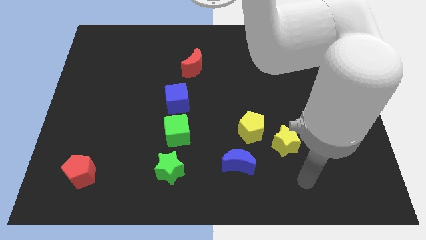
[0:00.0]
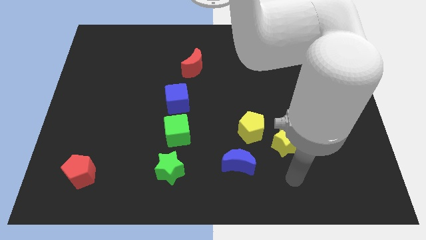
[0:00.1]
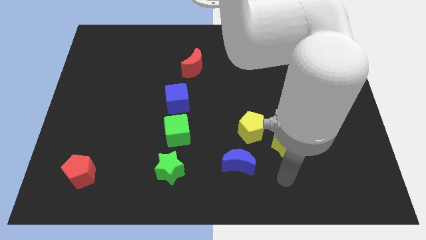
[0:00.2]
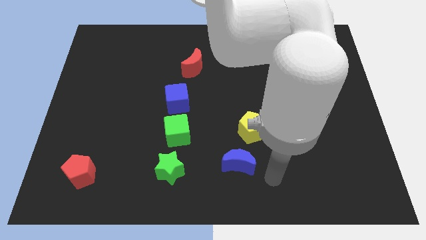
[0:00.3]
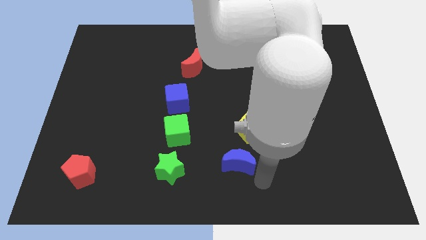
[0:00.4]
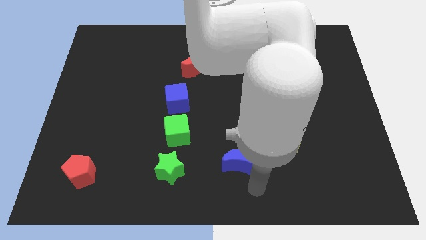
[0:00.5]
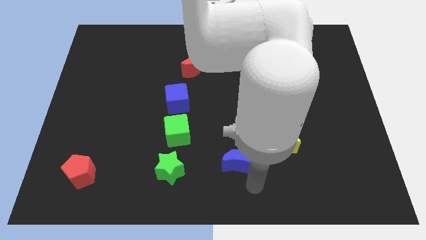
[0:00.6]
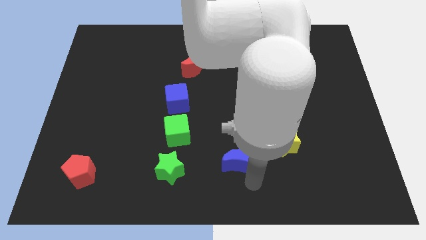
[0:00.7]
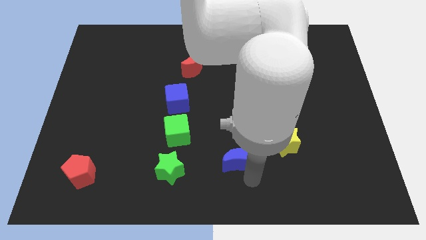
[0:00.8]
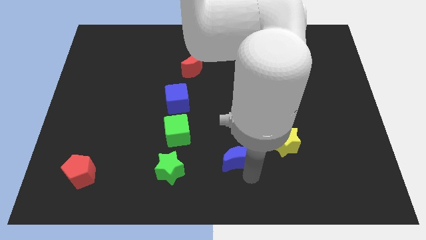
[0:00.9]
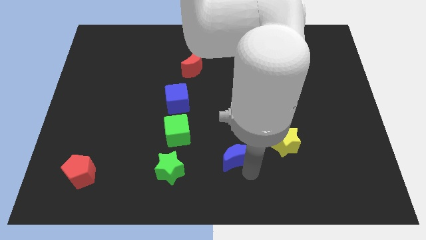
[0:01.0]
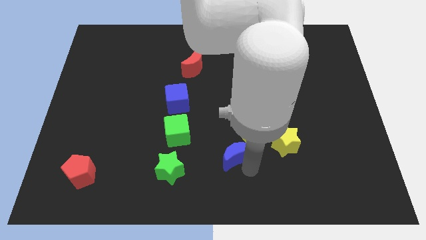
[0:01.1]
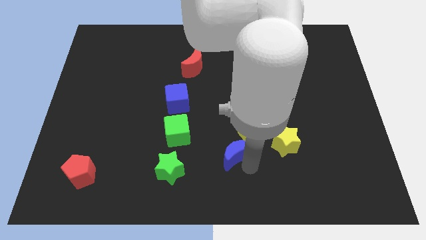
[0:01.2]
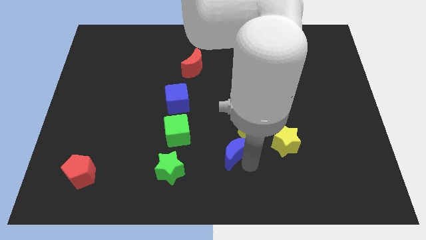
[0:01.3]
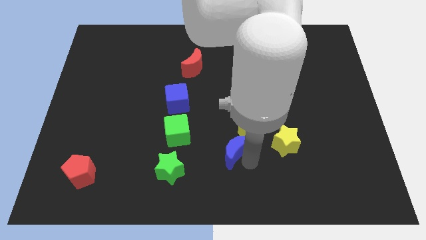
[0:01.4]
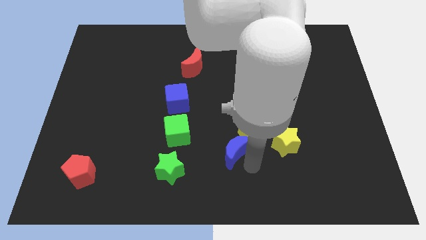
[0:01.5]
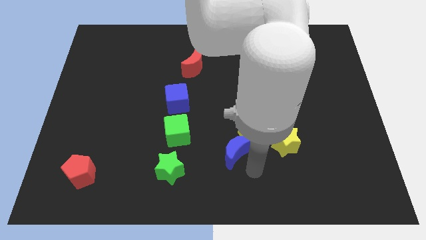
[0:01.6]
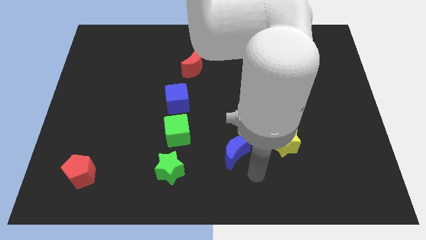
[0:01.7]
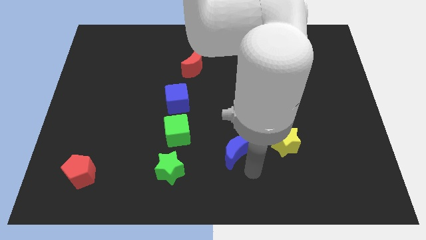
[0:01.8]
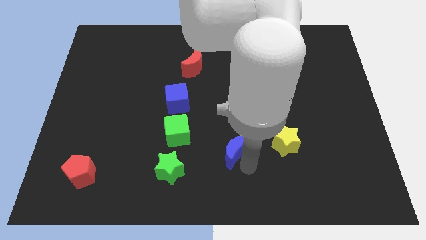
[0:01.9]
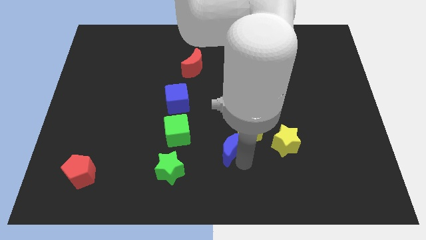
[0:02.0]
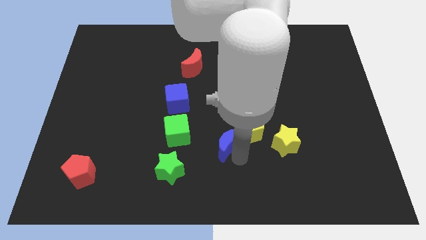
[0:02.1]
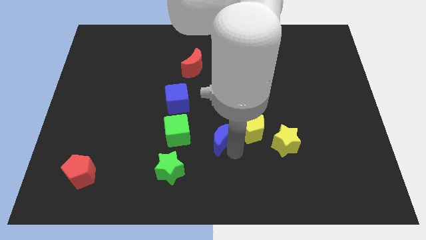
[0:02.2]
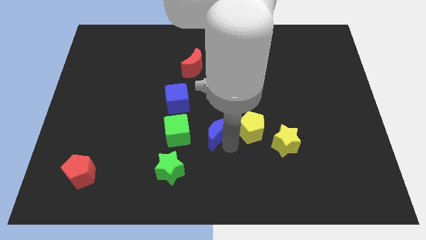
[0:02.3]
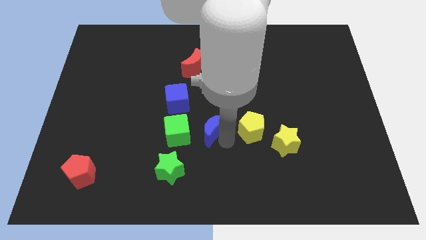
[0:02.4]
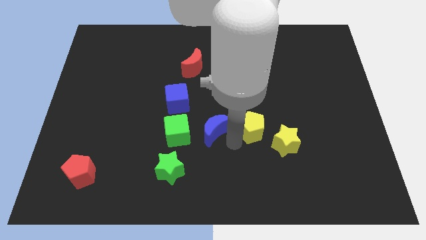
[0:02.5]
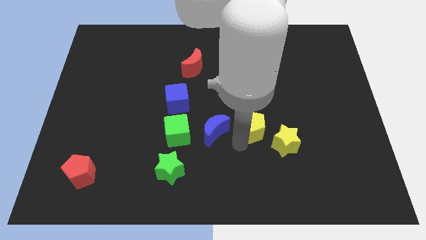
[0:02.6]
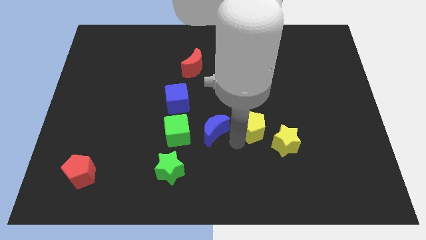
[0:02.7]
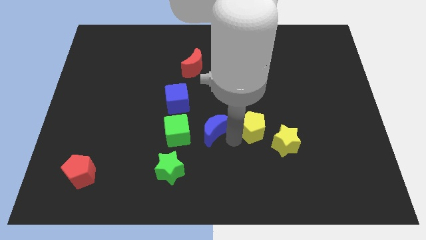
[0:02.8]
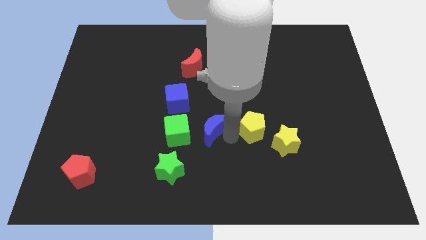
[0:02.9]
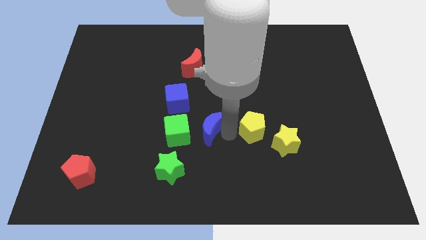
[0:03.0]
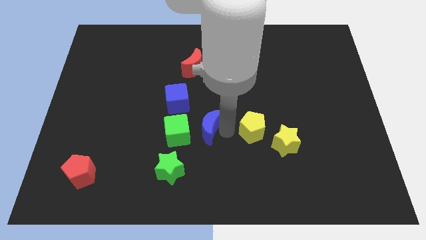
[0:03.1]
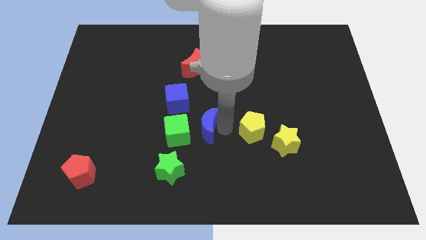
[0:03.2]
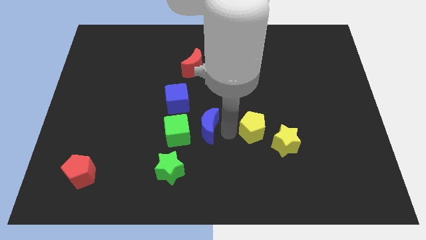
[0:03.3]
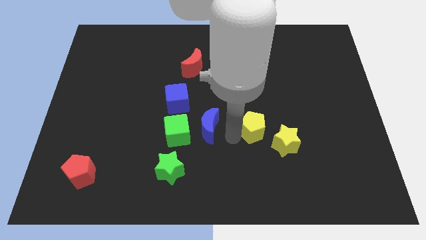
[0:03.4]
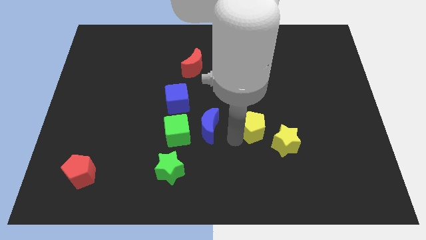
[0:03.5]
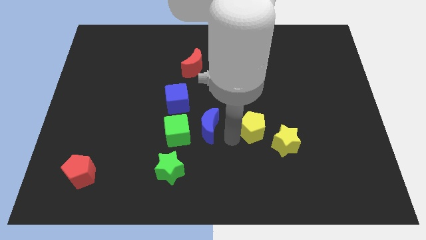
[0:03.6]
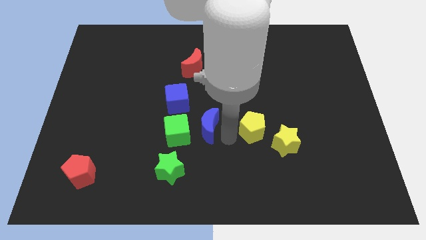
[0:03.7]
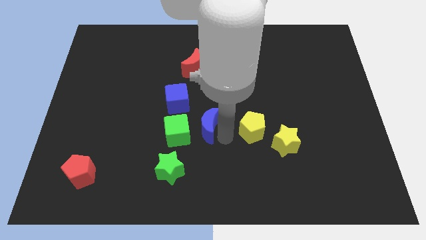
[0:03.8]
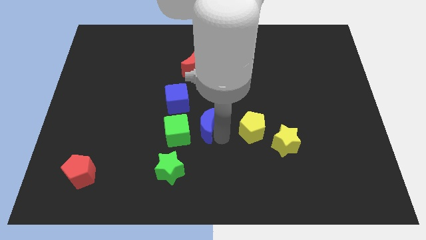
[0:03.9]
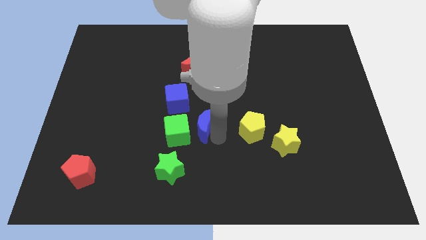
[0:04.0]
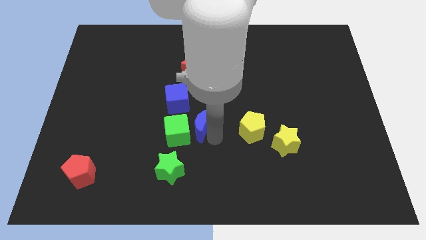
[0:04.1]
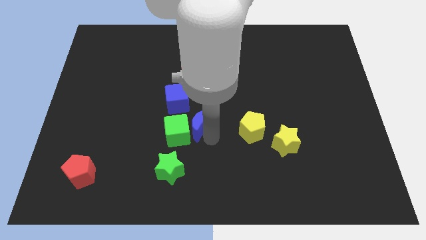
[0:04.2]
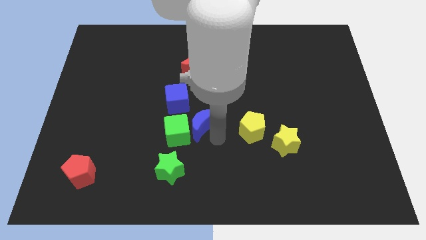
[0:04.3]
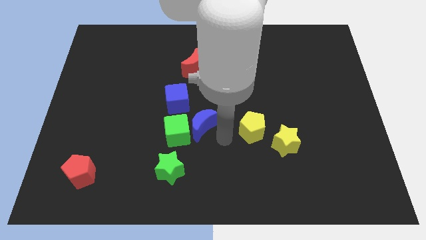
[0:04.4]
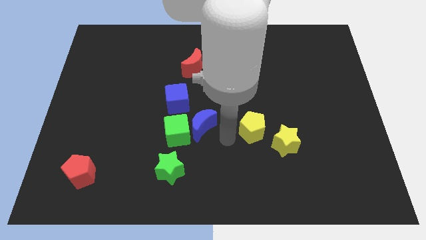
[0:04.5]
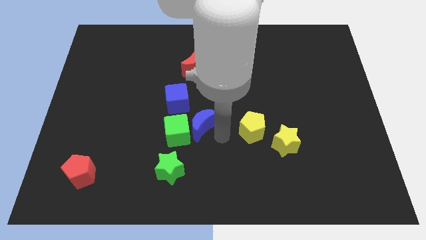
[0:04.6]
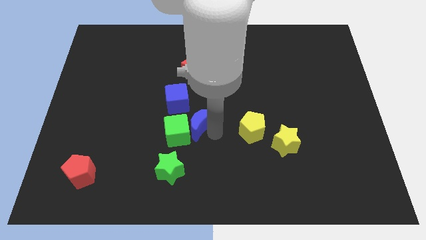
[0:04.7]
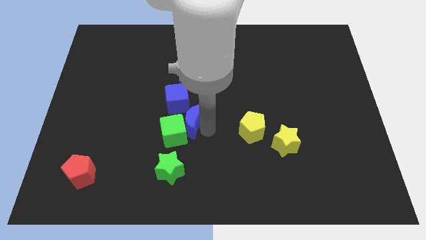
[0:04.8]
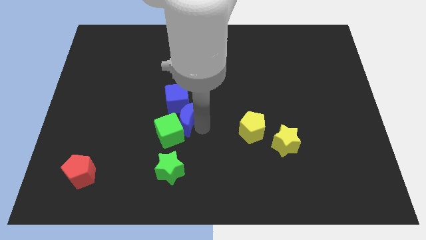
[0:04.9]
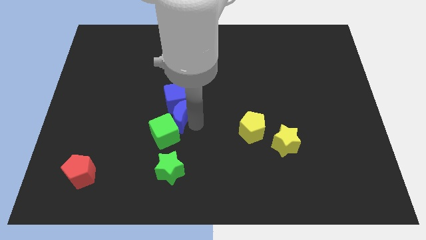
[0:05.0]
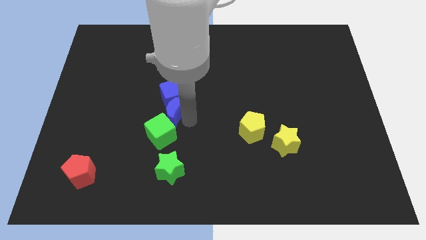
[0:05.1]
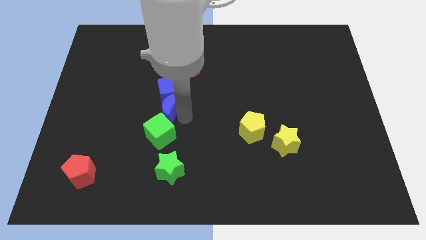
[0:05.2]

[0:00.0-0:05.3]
push the blue moon up and left diagonally

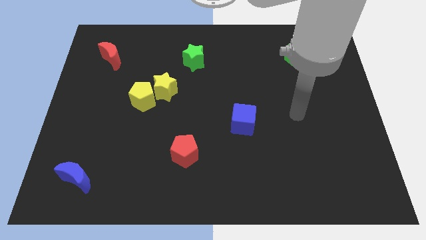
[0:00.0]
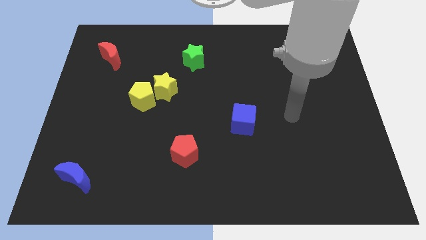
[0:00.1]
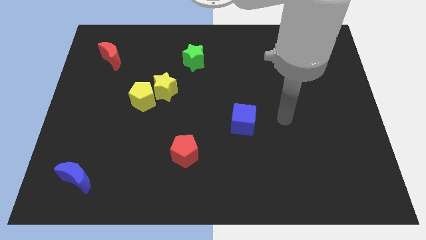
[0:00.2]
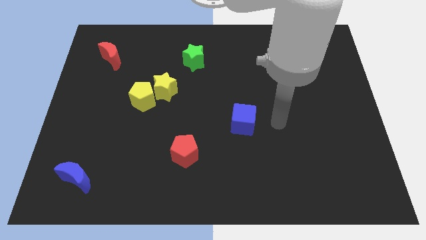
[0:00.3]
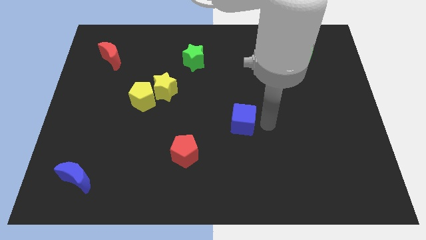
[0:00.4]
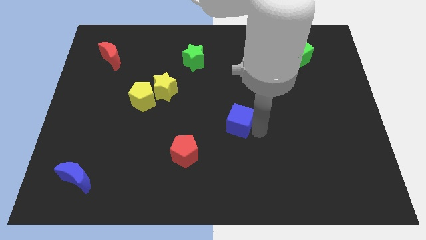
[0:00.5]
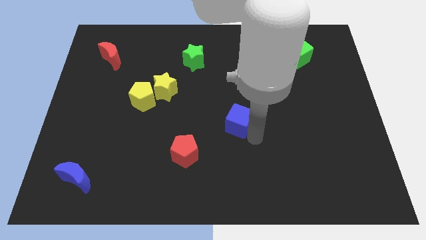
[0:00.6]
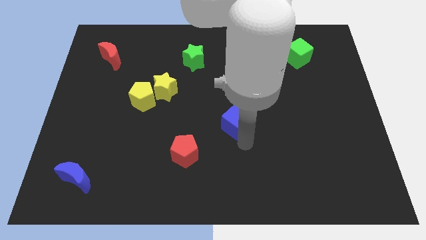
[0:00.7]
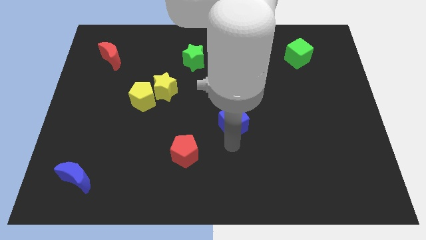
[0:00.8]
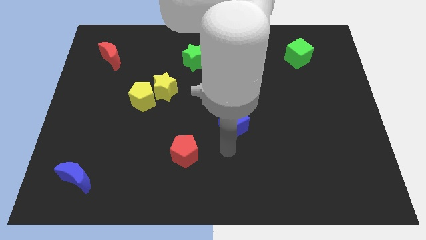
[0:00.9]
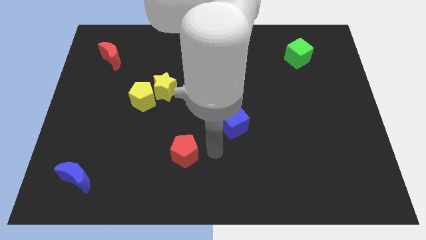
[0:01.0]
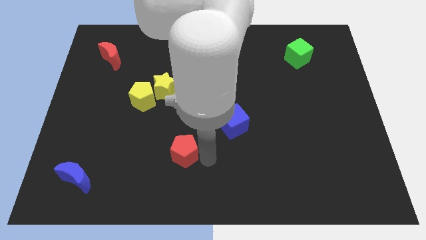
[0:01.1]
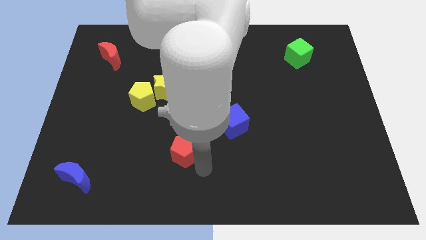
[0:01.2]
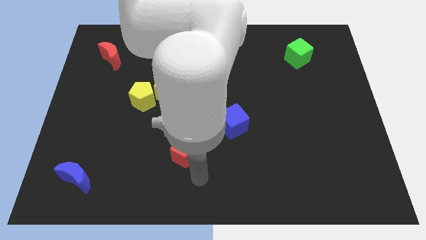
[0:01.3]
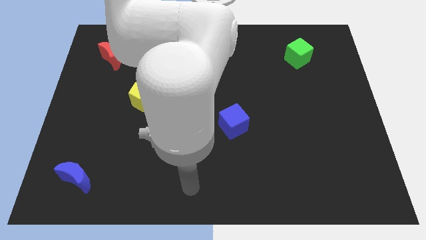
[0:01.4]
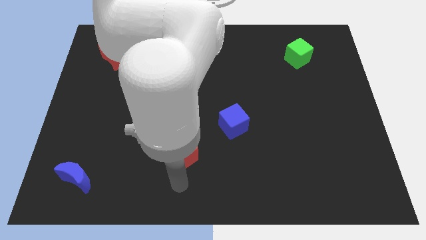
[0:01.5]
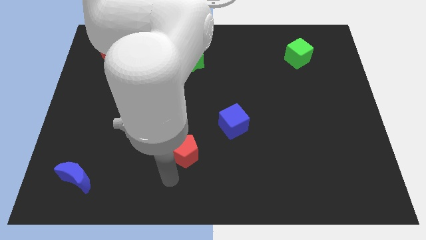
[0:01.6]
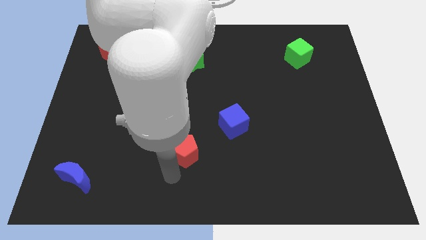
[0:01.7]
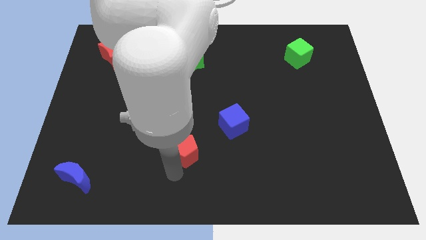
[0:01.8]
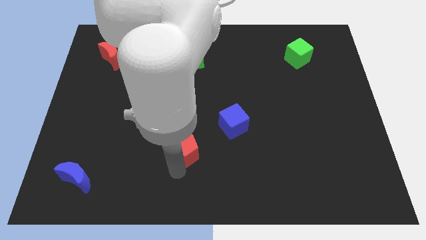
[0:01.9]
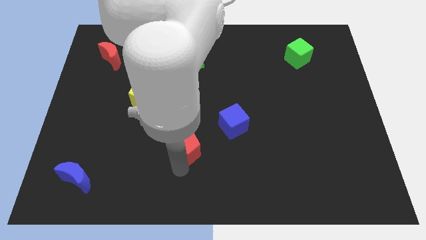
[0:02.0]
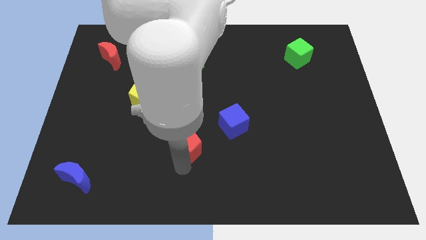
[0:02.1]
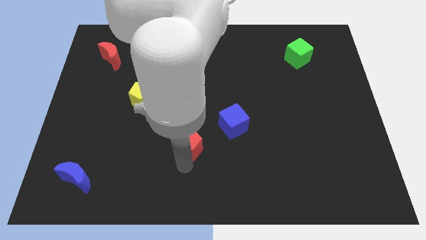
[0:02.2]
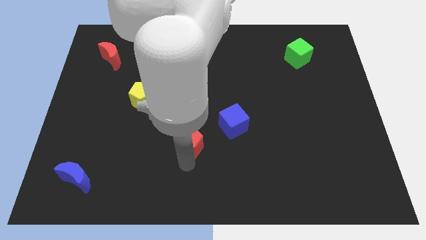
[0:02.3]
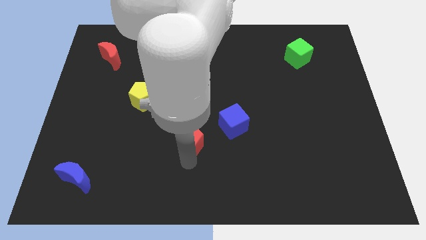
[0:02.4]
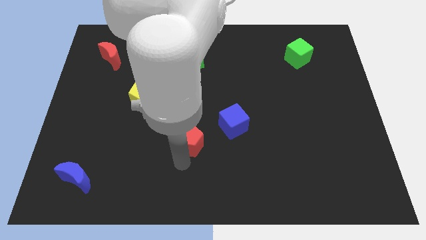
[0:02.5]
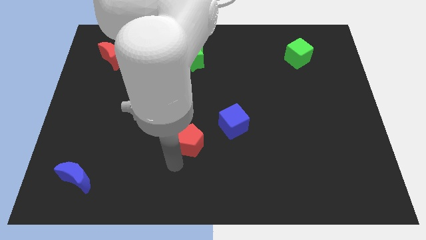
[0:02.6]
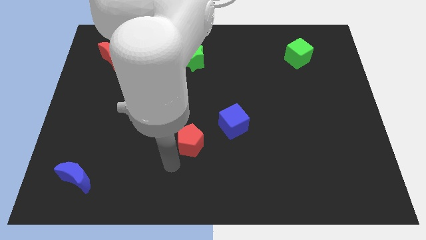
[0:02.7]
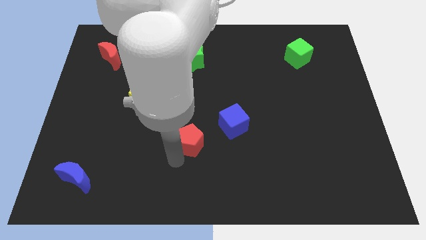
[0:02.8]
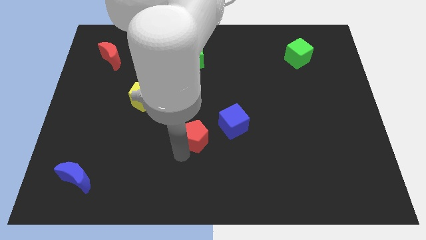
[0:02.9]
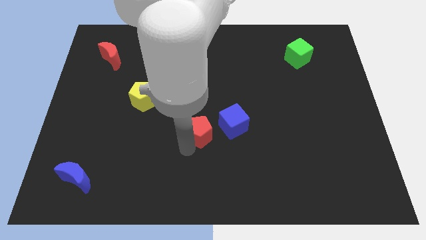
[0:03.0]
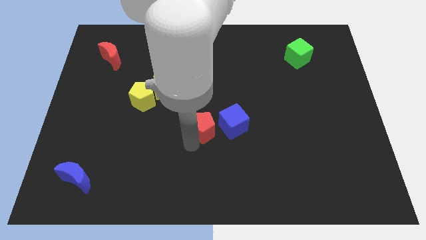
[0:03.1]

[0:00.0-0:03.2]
slightly push the red pentagon up and right
